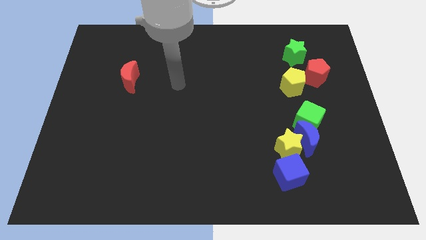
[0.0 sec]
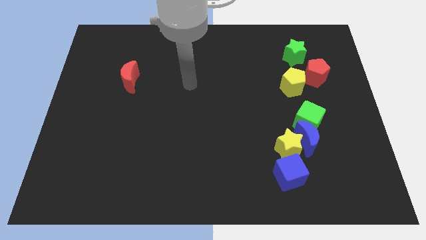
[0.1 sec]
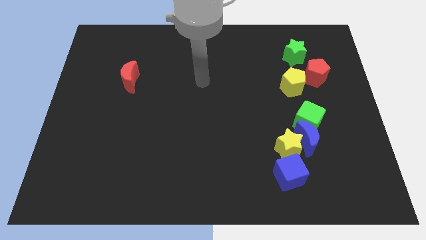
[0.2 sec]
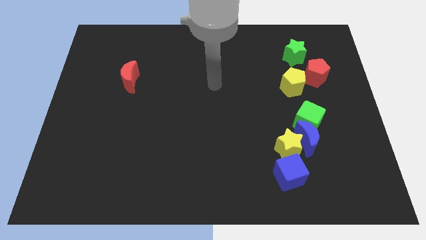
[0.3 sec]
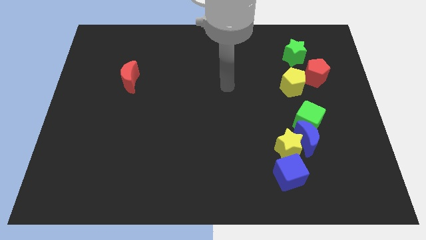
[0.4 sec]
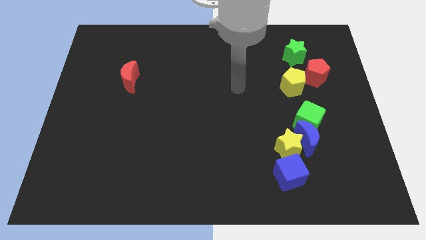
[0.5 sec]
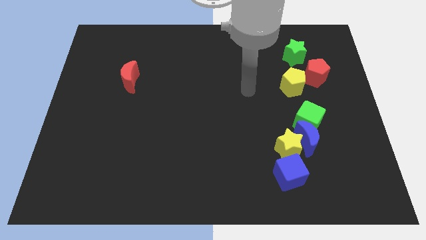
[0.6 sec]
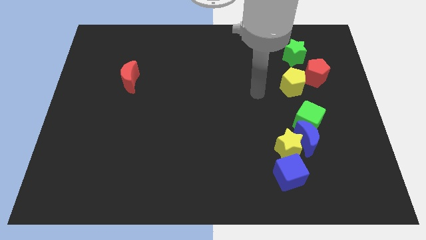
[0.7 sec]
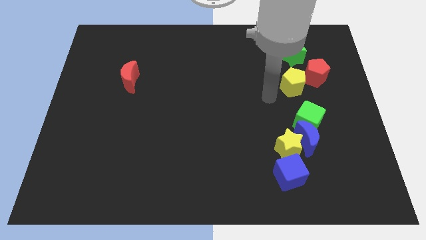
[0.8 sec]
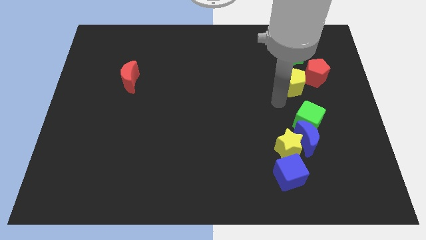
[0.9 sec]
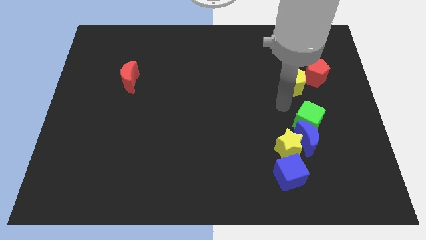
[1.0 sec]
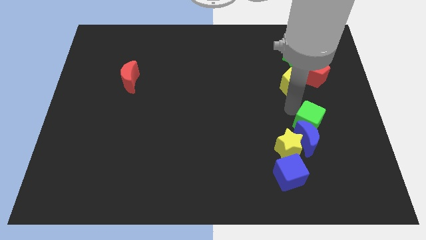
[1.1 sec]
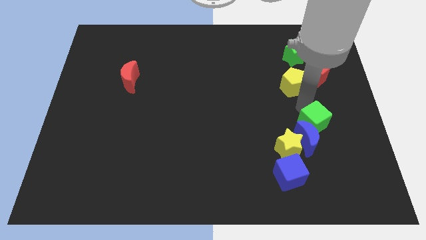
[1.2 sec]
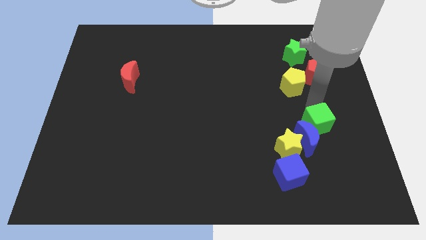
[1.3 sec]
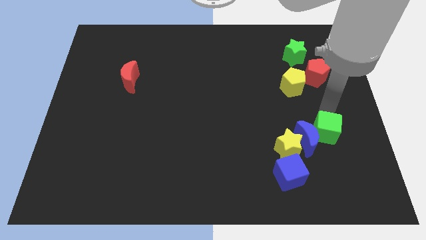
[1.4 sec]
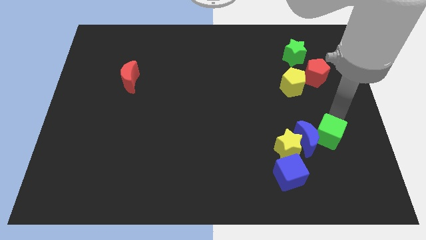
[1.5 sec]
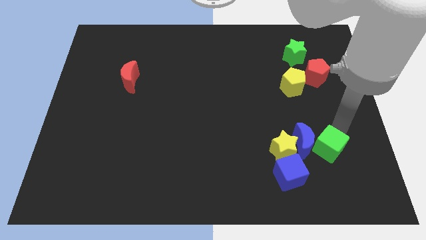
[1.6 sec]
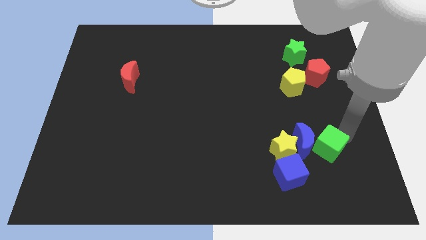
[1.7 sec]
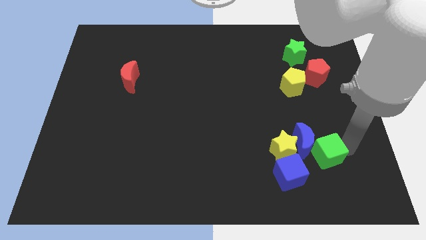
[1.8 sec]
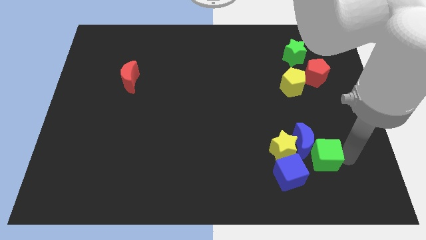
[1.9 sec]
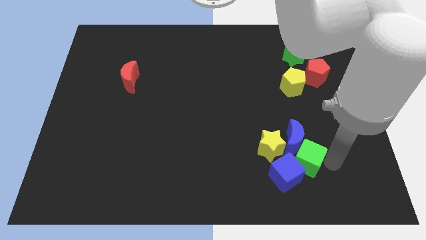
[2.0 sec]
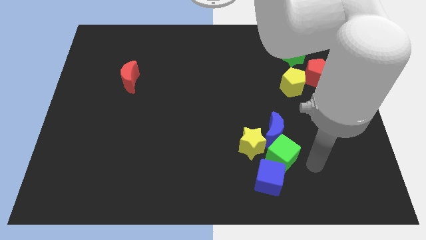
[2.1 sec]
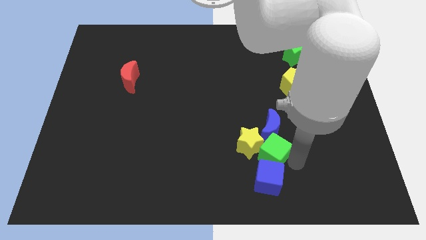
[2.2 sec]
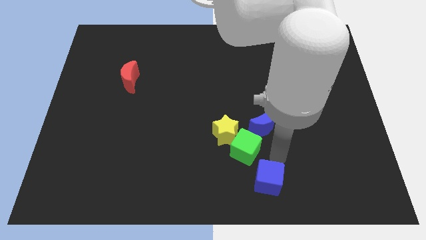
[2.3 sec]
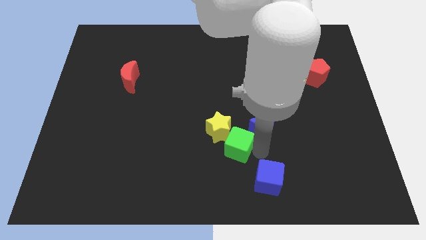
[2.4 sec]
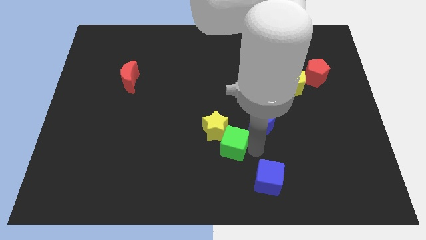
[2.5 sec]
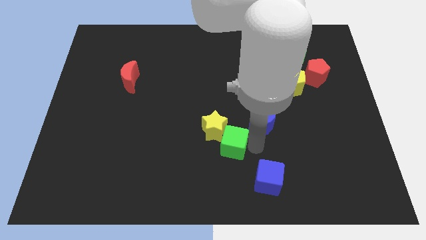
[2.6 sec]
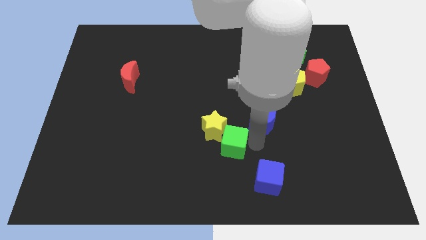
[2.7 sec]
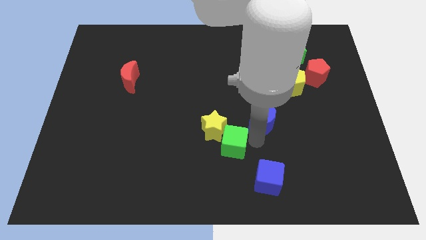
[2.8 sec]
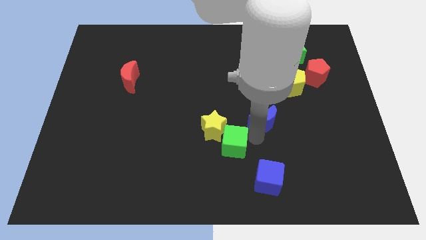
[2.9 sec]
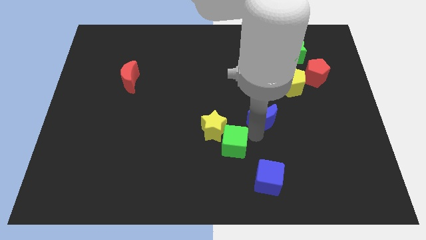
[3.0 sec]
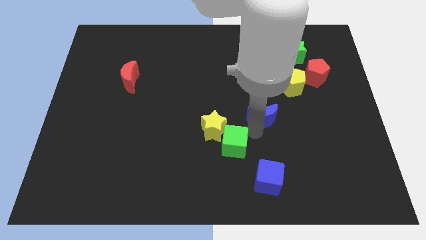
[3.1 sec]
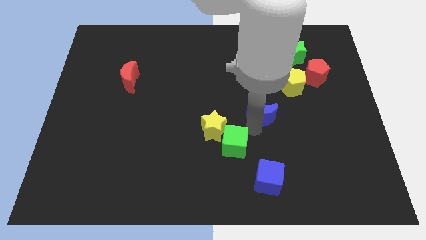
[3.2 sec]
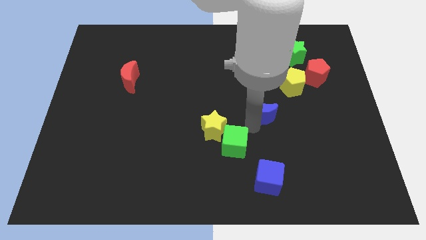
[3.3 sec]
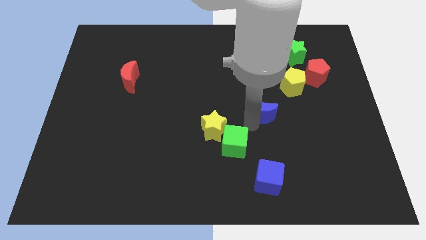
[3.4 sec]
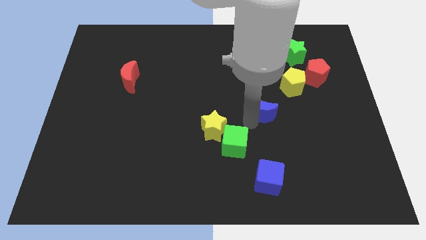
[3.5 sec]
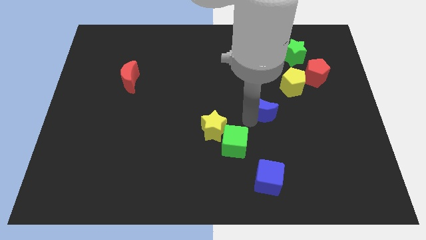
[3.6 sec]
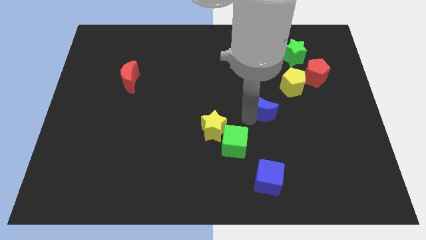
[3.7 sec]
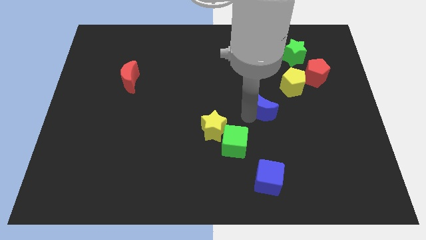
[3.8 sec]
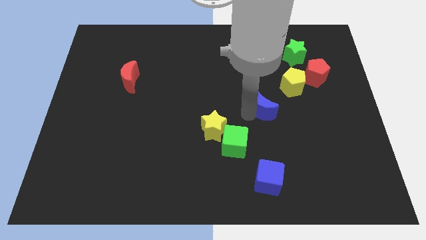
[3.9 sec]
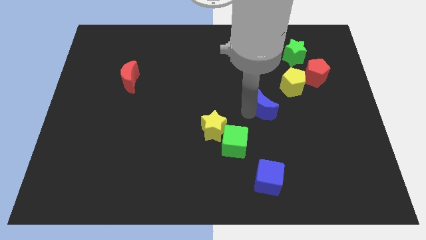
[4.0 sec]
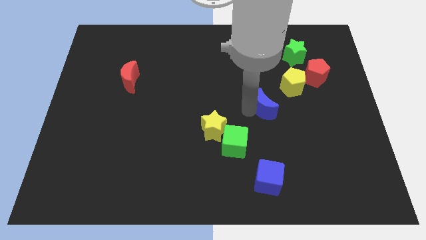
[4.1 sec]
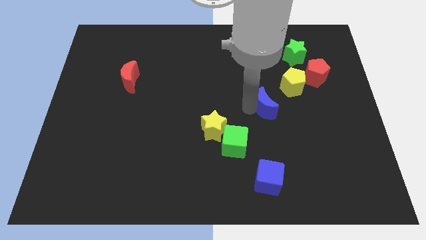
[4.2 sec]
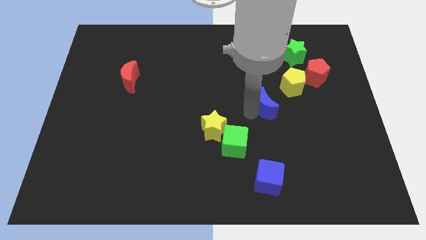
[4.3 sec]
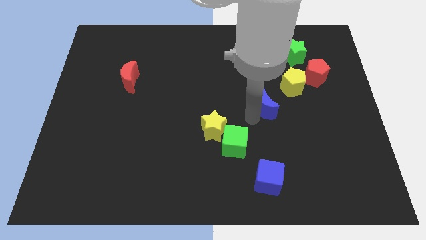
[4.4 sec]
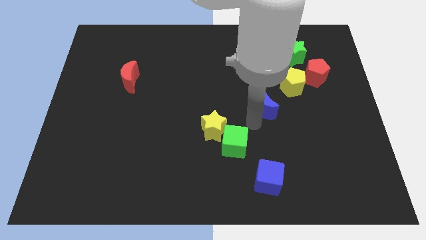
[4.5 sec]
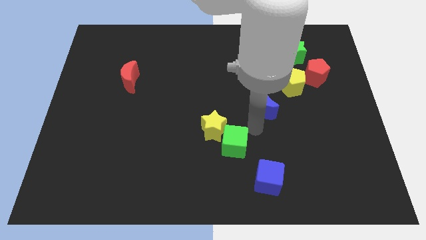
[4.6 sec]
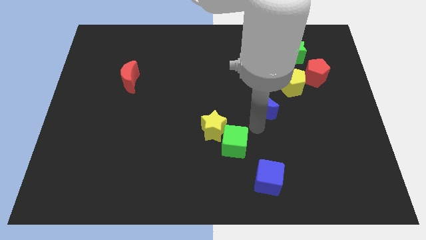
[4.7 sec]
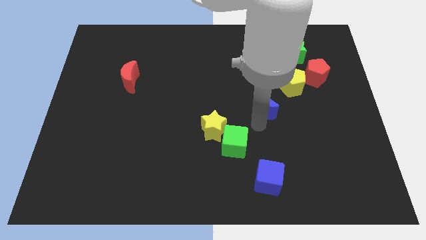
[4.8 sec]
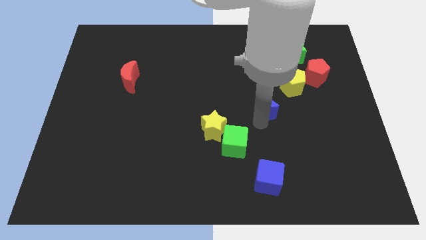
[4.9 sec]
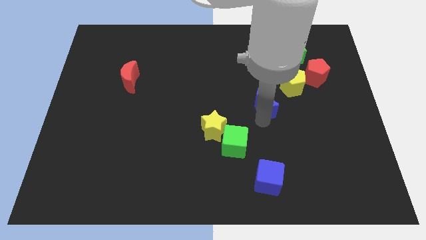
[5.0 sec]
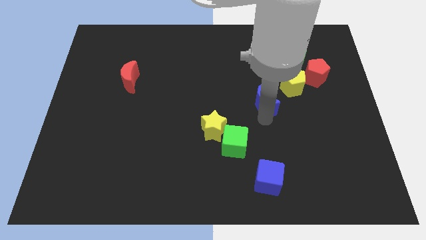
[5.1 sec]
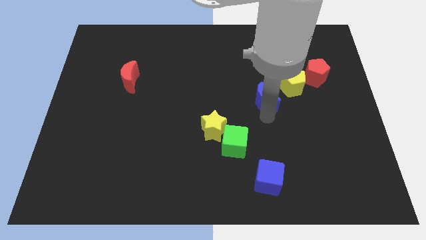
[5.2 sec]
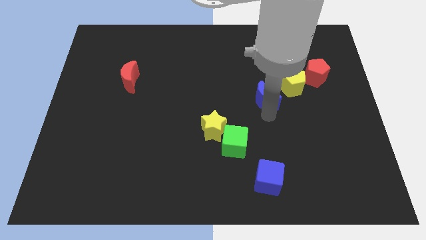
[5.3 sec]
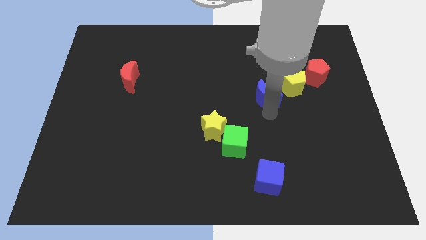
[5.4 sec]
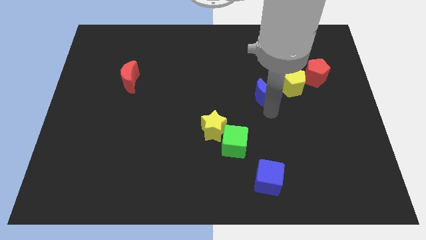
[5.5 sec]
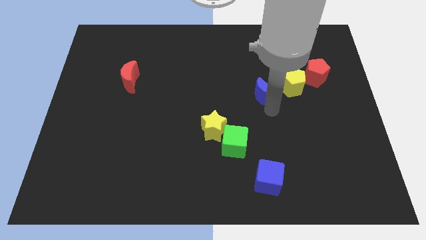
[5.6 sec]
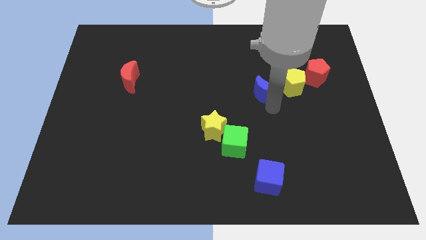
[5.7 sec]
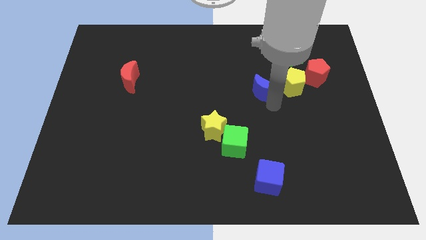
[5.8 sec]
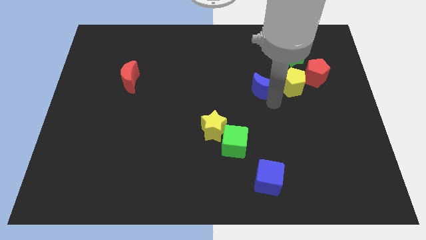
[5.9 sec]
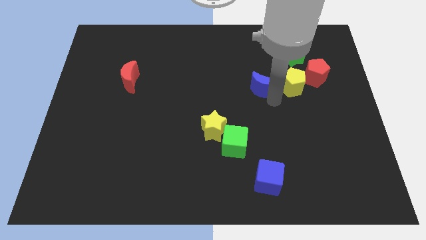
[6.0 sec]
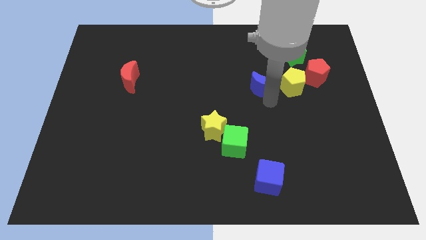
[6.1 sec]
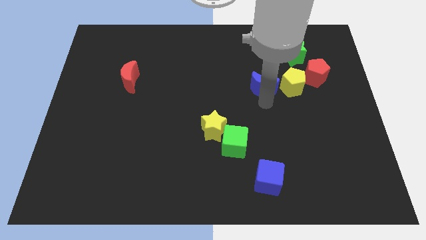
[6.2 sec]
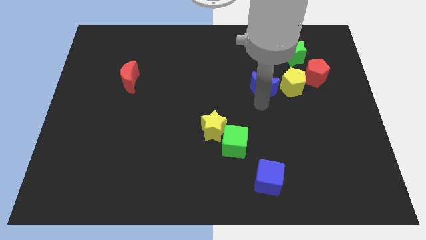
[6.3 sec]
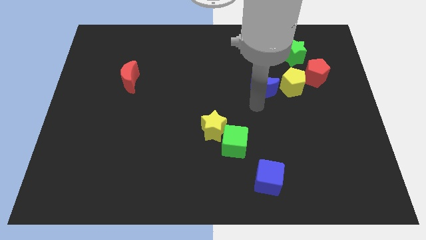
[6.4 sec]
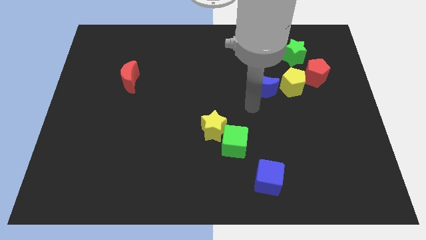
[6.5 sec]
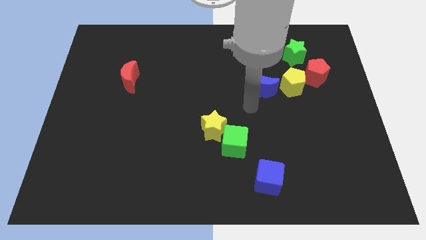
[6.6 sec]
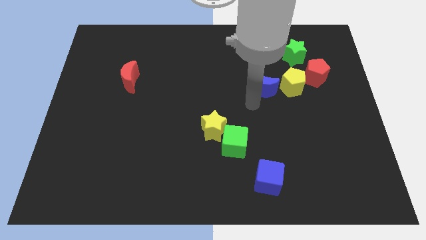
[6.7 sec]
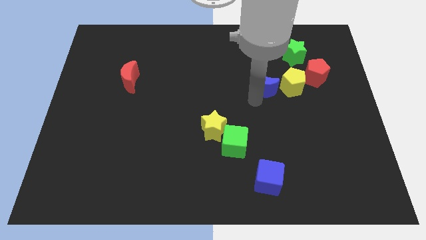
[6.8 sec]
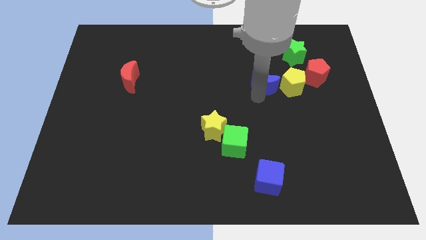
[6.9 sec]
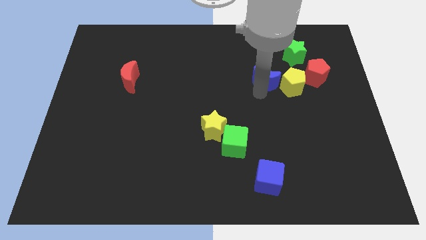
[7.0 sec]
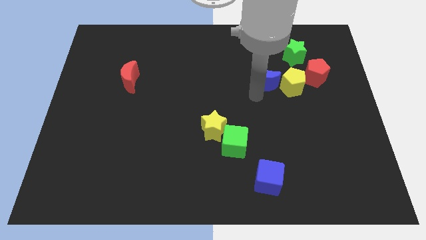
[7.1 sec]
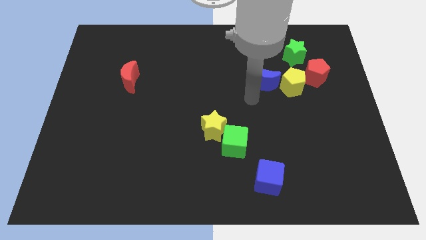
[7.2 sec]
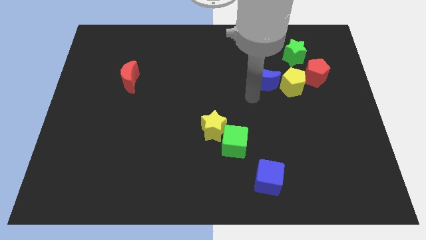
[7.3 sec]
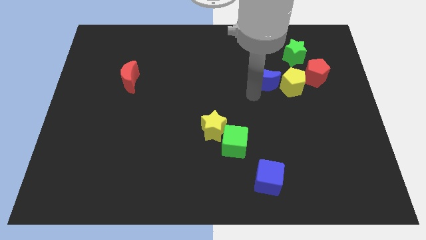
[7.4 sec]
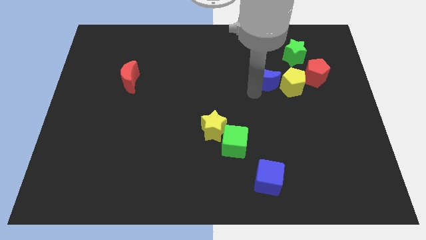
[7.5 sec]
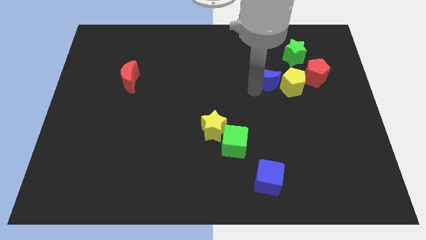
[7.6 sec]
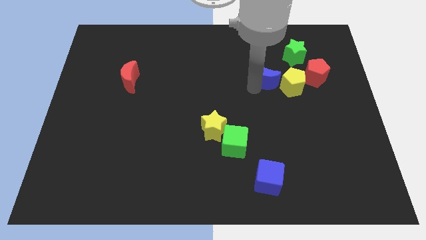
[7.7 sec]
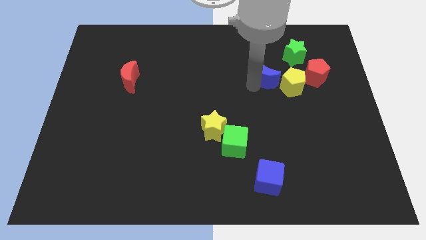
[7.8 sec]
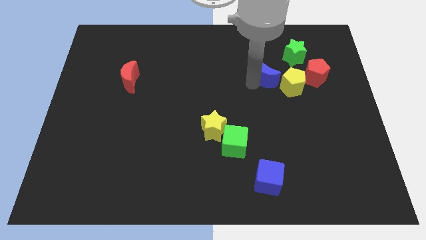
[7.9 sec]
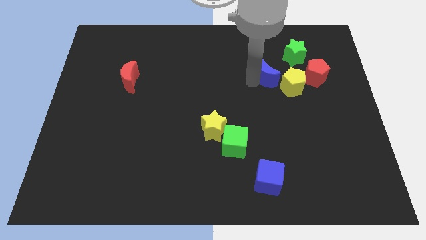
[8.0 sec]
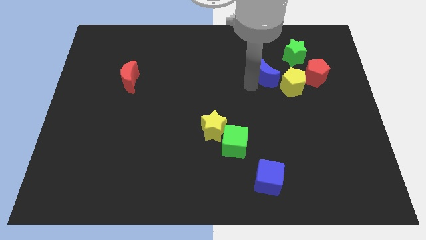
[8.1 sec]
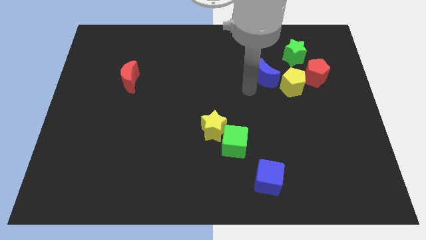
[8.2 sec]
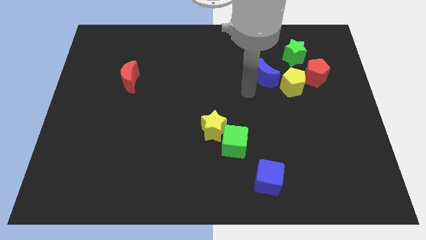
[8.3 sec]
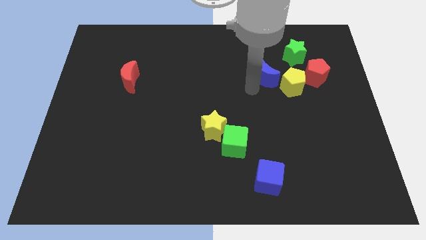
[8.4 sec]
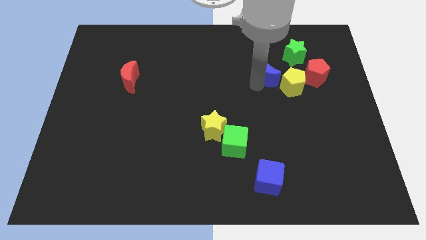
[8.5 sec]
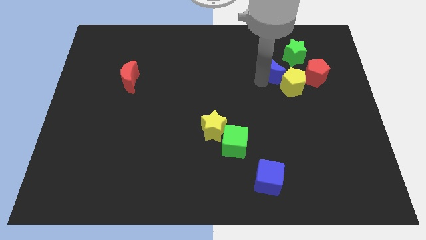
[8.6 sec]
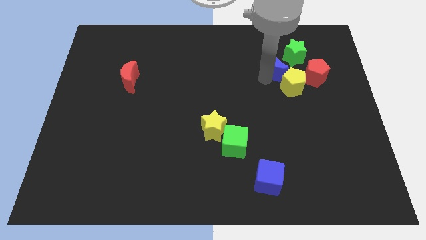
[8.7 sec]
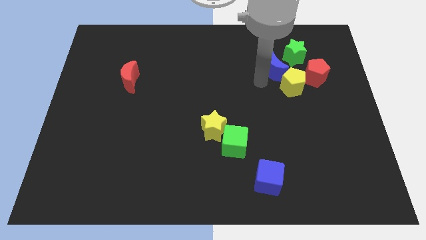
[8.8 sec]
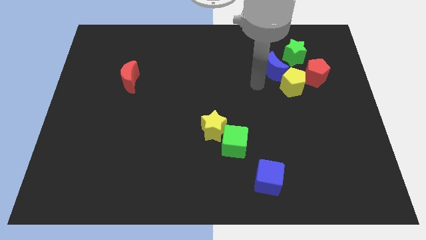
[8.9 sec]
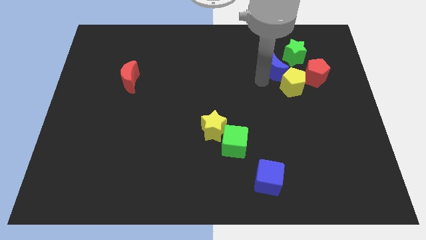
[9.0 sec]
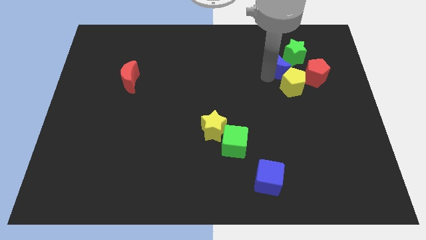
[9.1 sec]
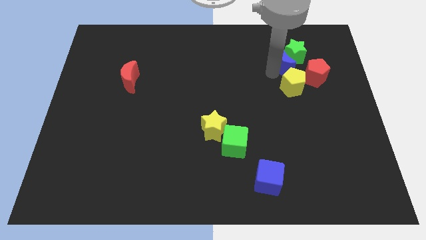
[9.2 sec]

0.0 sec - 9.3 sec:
push the blue moon next to the green star
